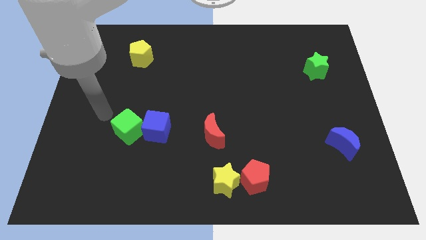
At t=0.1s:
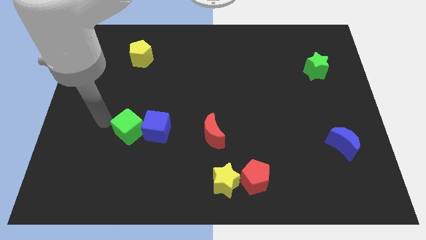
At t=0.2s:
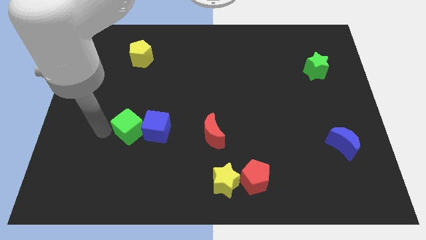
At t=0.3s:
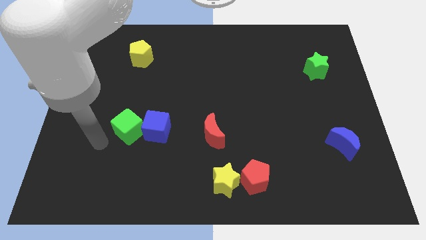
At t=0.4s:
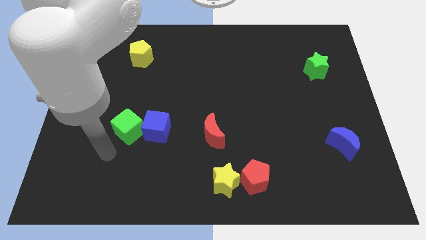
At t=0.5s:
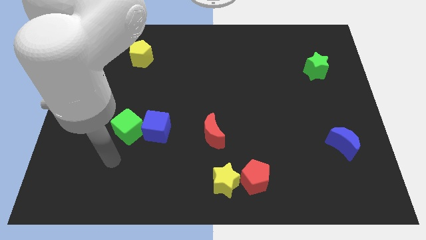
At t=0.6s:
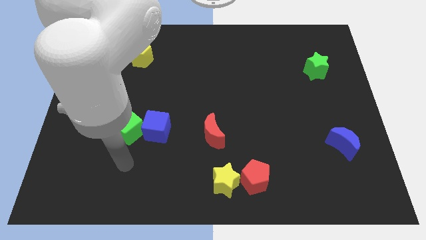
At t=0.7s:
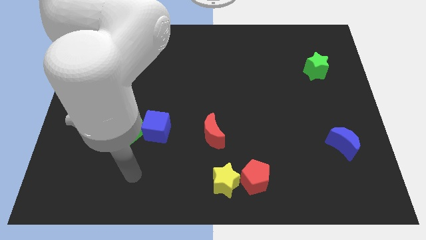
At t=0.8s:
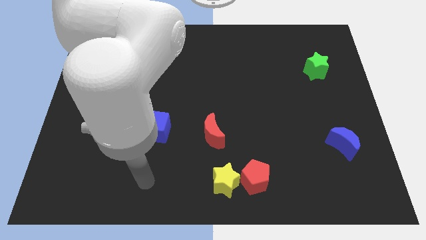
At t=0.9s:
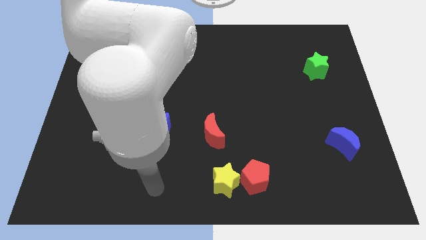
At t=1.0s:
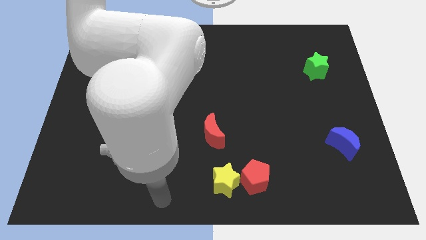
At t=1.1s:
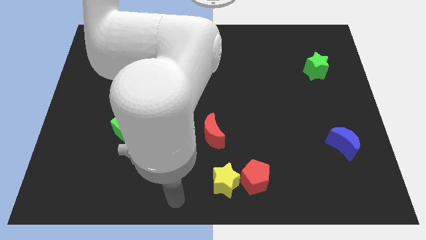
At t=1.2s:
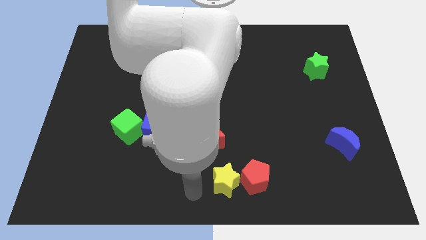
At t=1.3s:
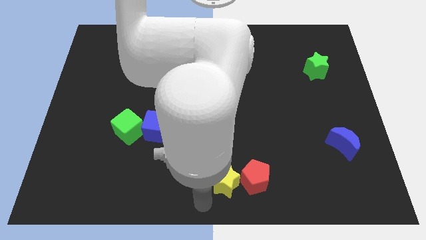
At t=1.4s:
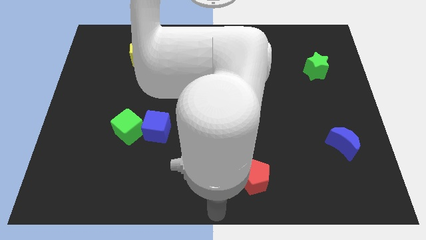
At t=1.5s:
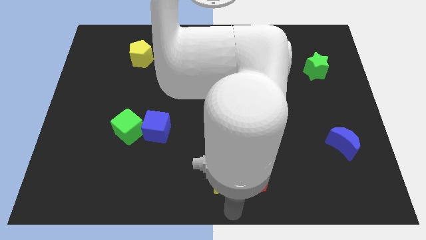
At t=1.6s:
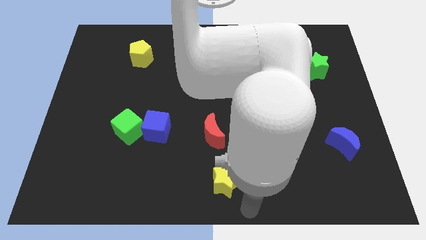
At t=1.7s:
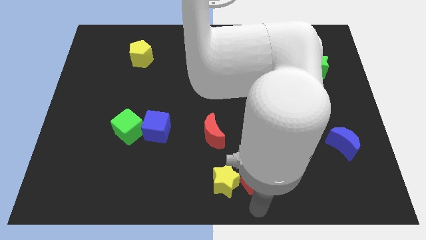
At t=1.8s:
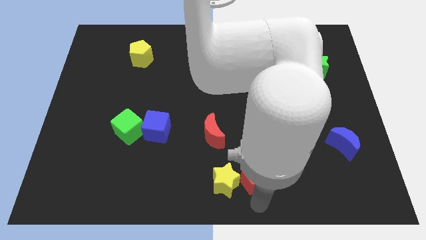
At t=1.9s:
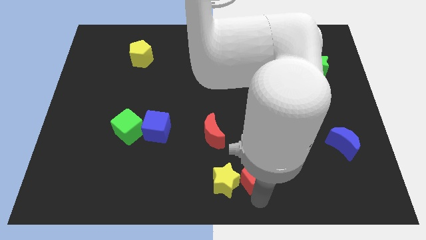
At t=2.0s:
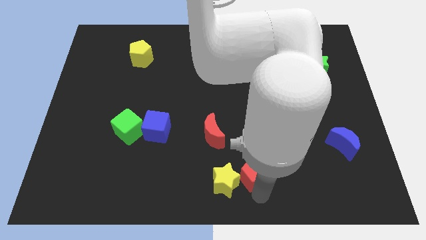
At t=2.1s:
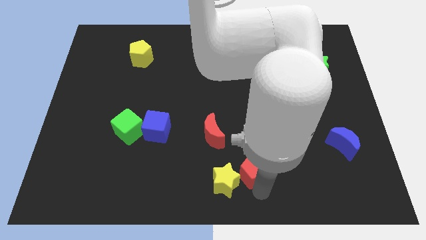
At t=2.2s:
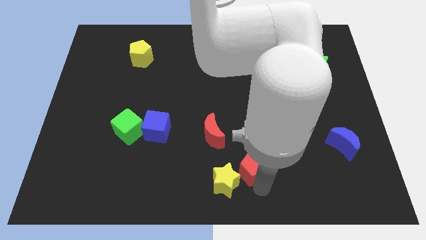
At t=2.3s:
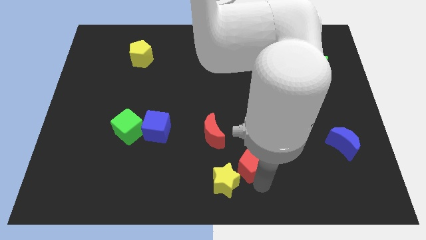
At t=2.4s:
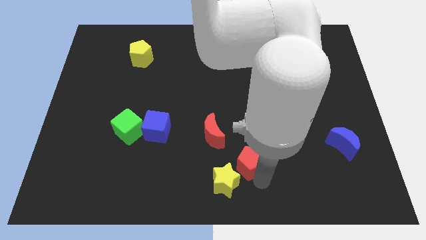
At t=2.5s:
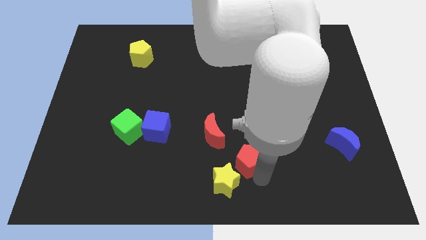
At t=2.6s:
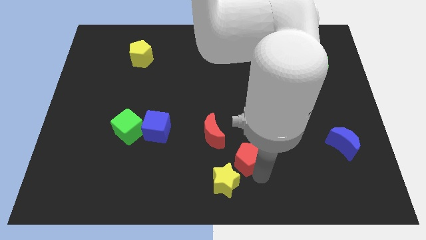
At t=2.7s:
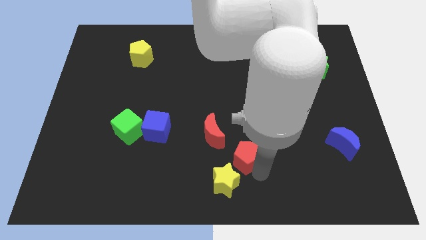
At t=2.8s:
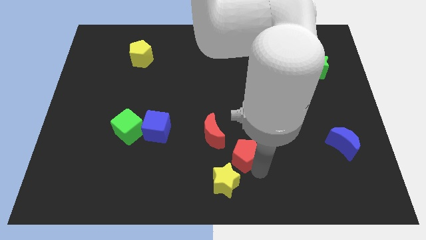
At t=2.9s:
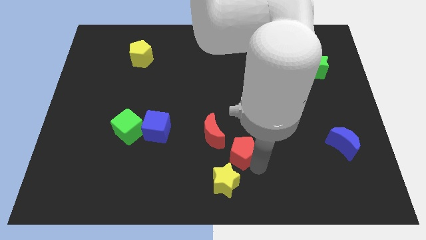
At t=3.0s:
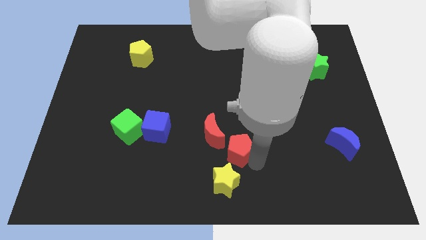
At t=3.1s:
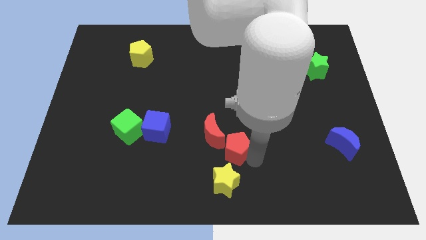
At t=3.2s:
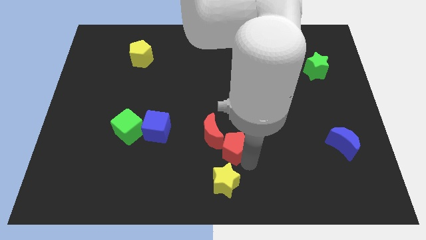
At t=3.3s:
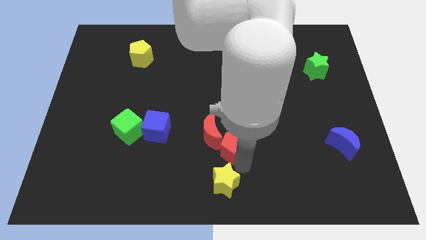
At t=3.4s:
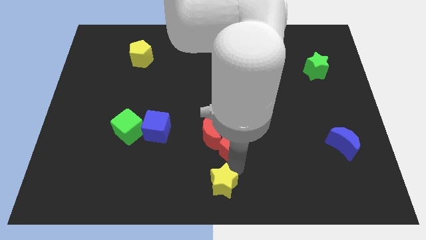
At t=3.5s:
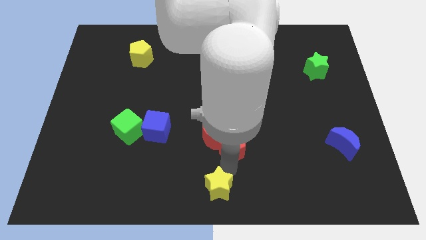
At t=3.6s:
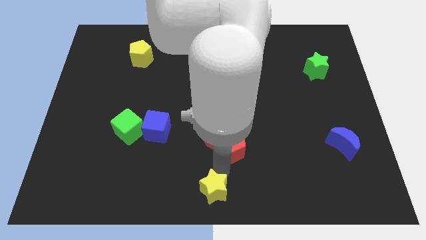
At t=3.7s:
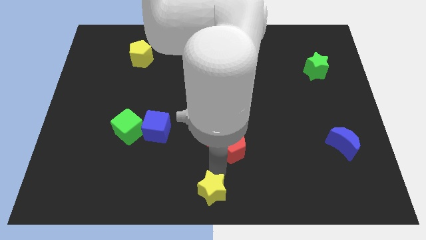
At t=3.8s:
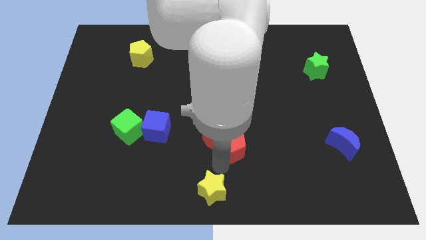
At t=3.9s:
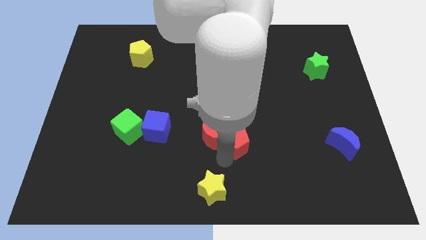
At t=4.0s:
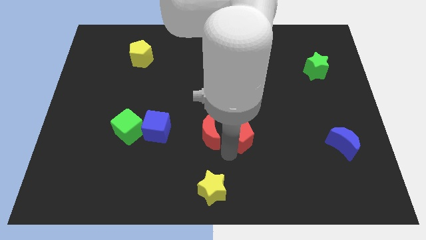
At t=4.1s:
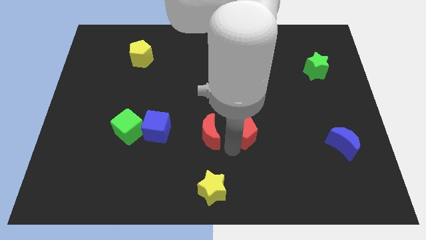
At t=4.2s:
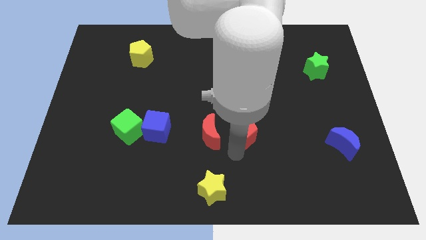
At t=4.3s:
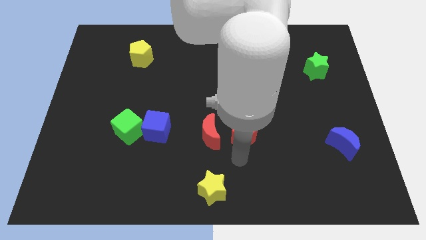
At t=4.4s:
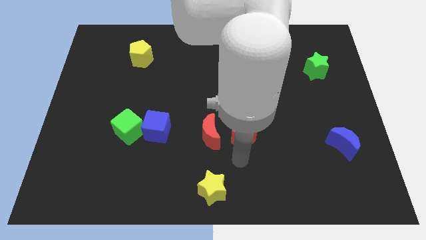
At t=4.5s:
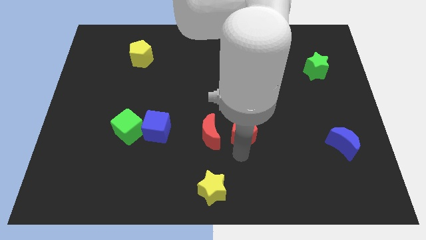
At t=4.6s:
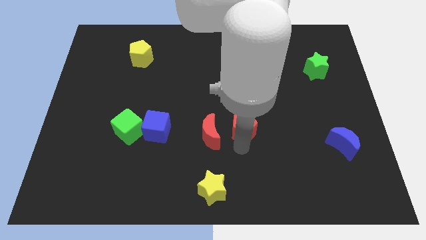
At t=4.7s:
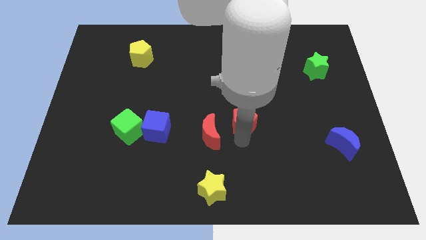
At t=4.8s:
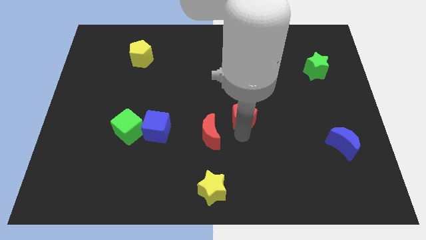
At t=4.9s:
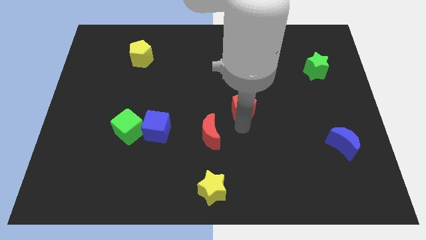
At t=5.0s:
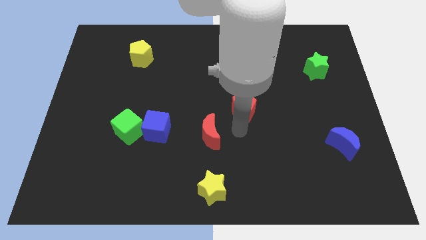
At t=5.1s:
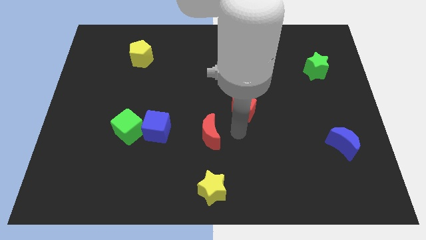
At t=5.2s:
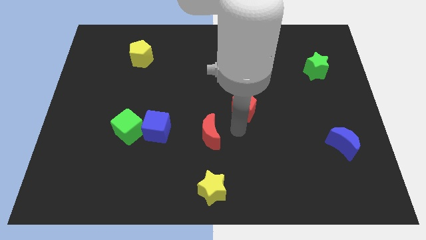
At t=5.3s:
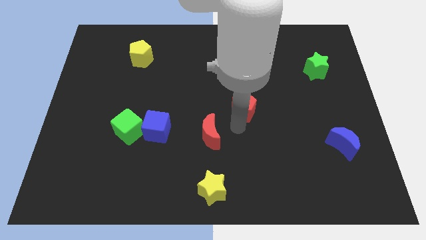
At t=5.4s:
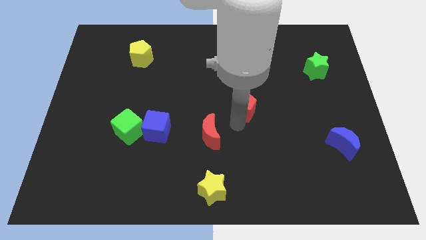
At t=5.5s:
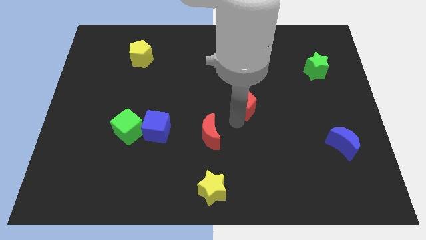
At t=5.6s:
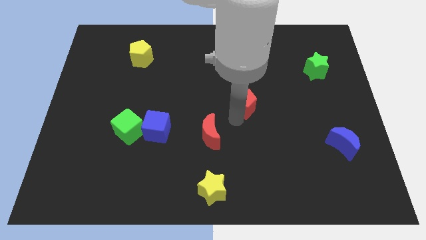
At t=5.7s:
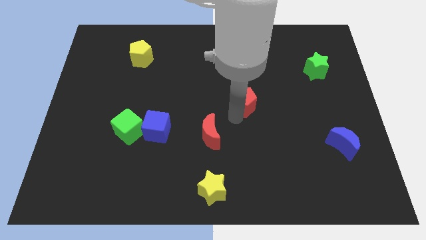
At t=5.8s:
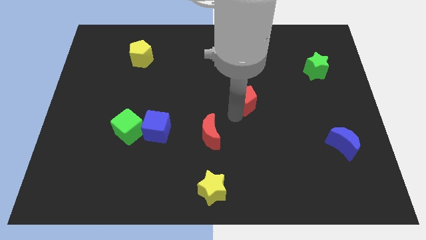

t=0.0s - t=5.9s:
move the red pentagon upwards

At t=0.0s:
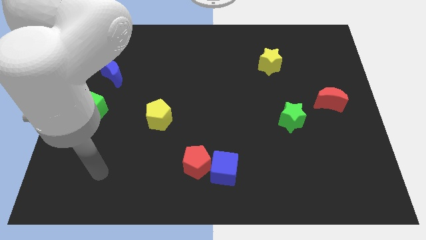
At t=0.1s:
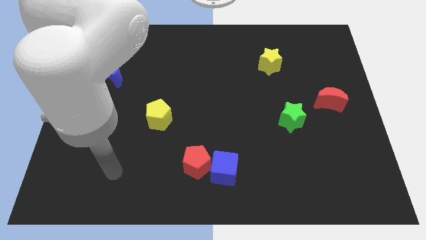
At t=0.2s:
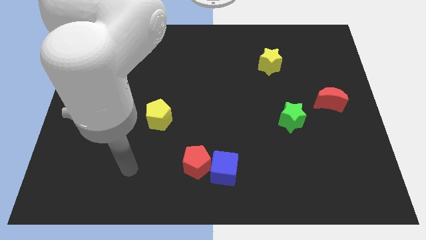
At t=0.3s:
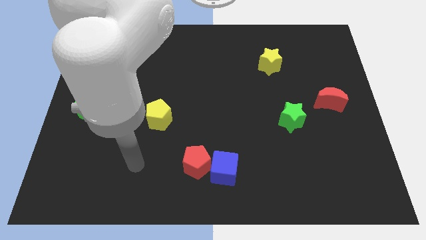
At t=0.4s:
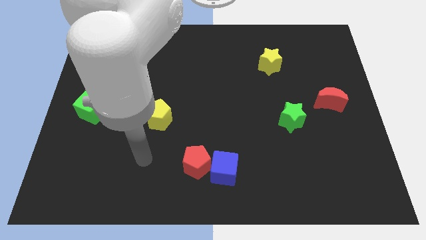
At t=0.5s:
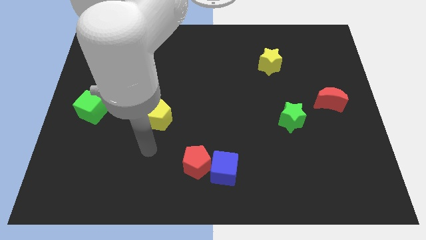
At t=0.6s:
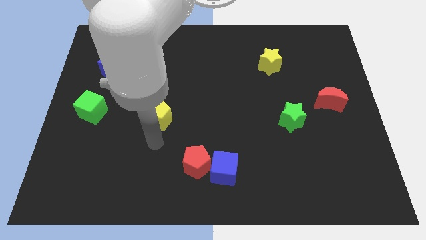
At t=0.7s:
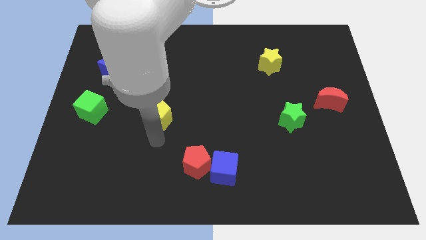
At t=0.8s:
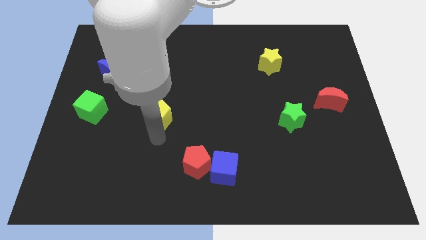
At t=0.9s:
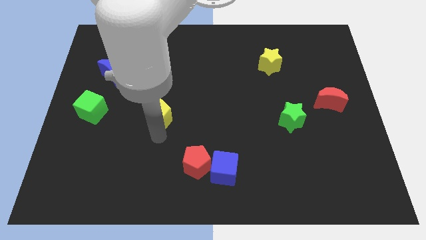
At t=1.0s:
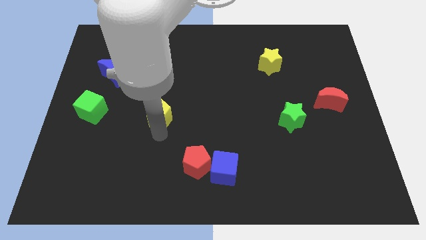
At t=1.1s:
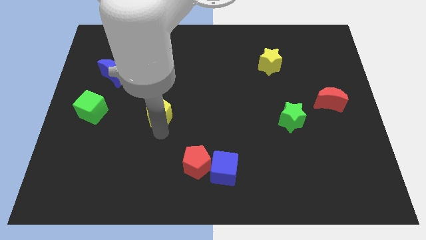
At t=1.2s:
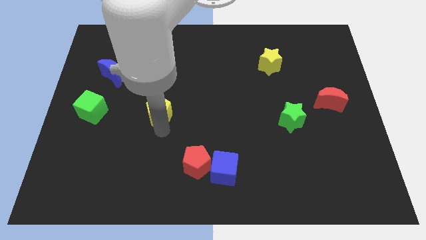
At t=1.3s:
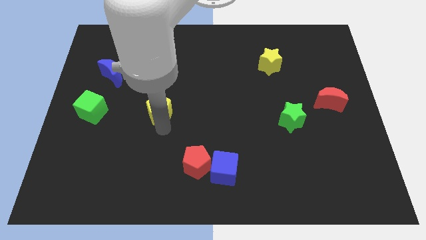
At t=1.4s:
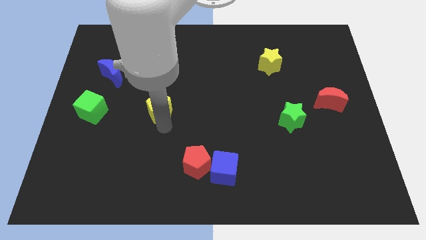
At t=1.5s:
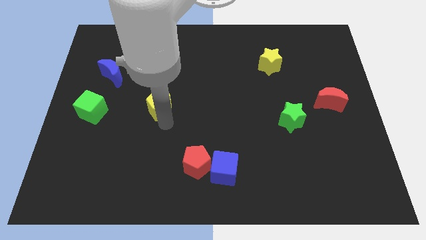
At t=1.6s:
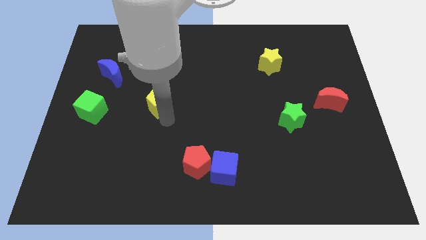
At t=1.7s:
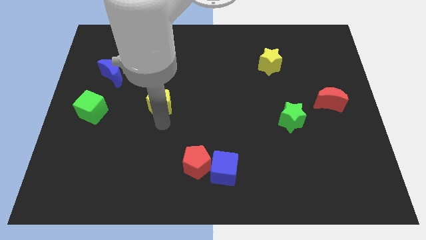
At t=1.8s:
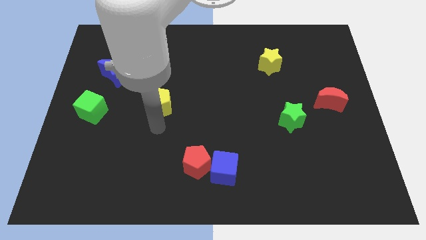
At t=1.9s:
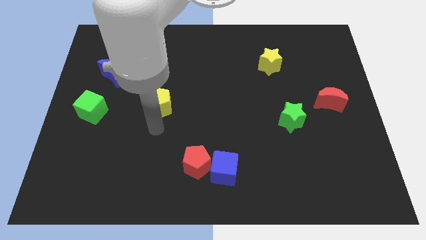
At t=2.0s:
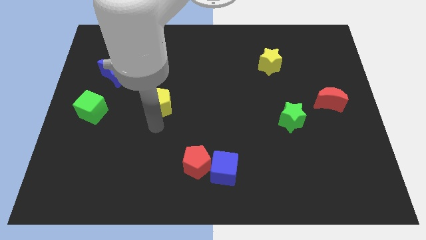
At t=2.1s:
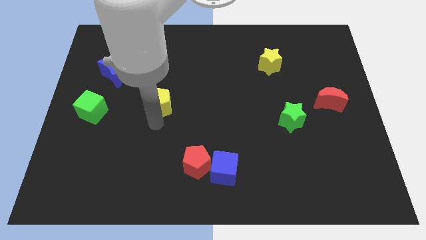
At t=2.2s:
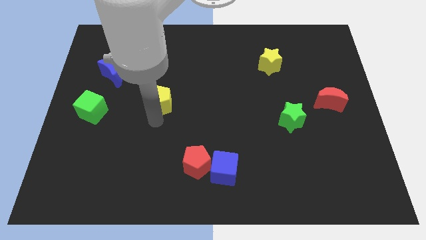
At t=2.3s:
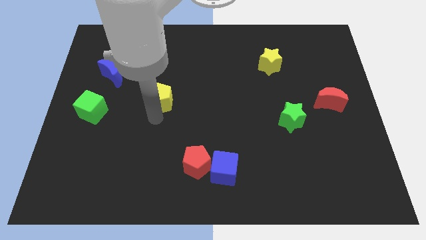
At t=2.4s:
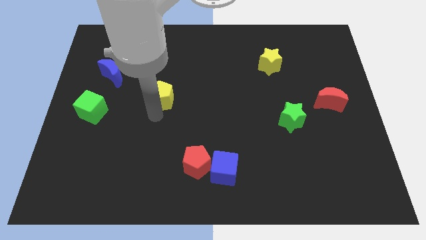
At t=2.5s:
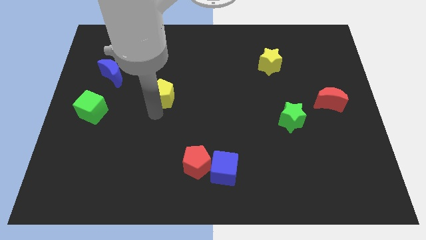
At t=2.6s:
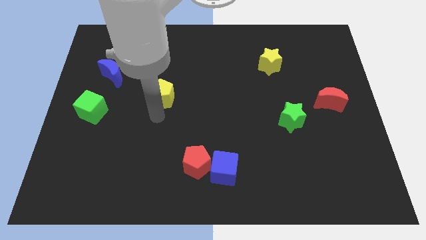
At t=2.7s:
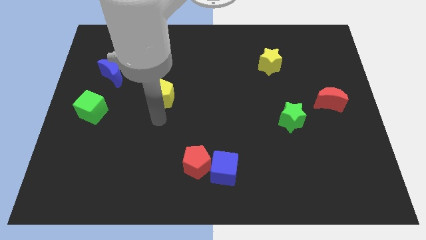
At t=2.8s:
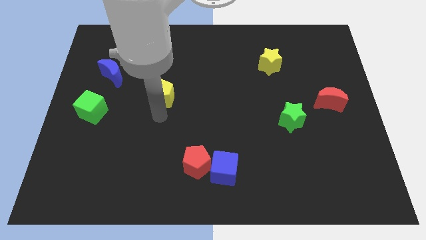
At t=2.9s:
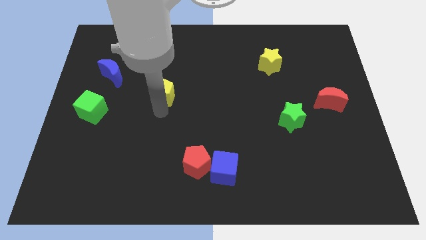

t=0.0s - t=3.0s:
slide the yellow pentagon up slightly
